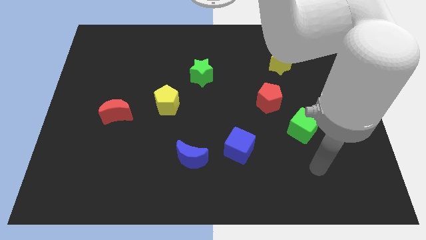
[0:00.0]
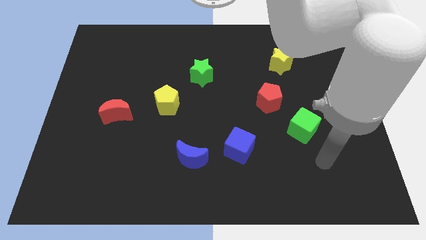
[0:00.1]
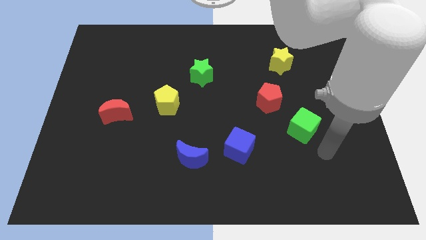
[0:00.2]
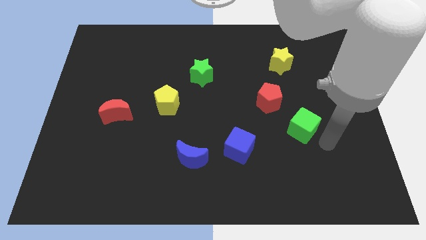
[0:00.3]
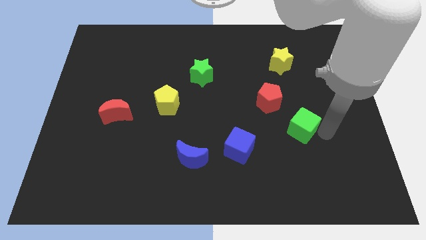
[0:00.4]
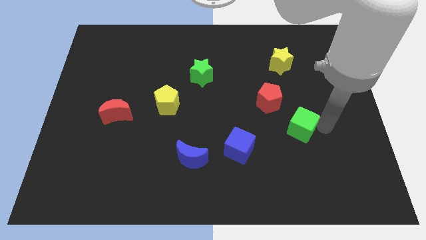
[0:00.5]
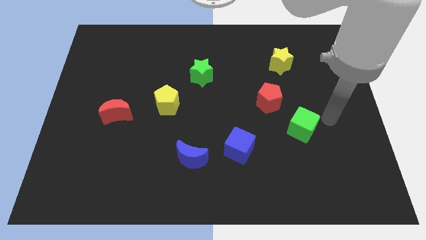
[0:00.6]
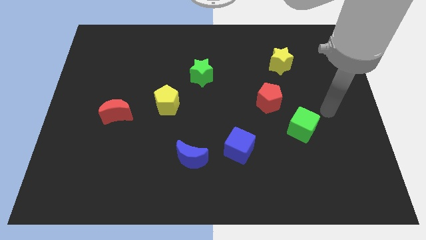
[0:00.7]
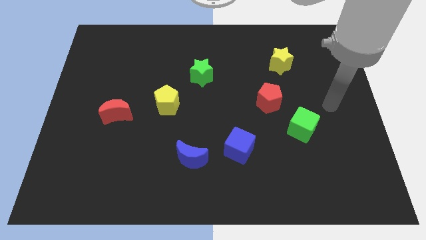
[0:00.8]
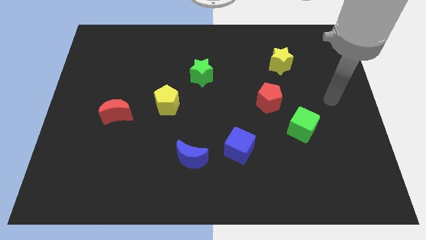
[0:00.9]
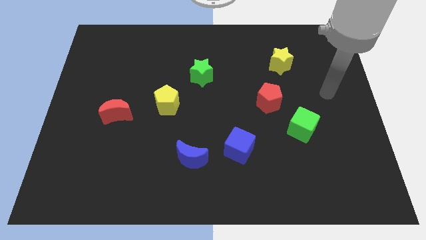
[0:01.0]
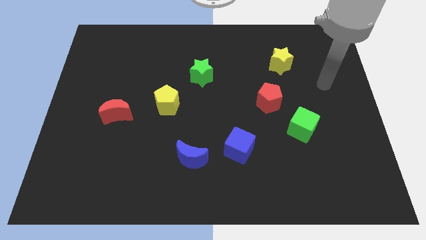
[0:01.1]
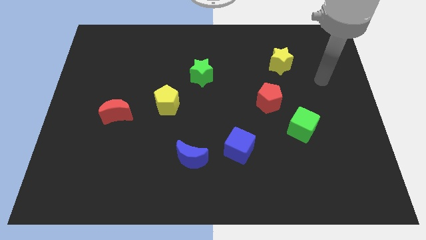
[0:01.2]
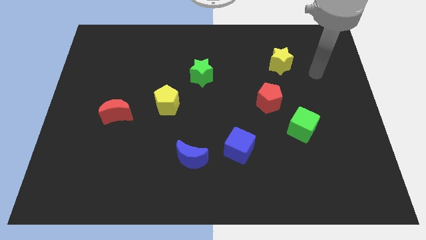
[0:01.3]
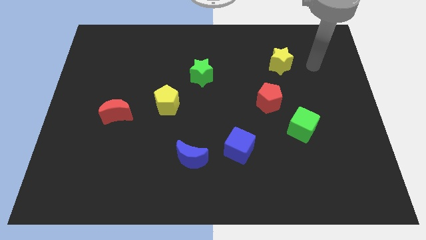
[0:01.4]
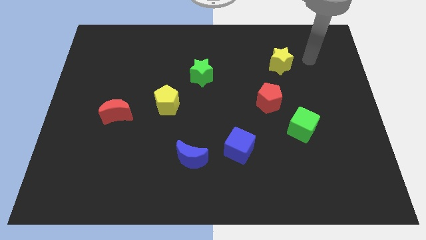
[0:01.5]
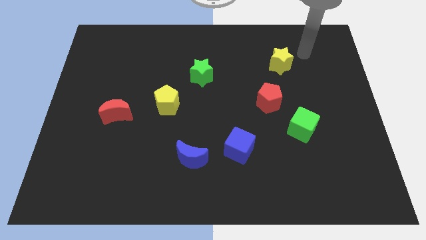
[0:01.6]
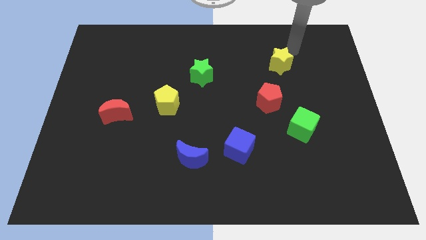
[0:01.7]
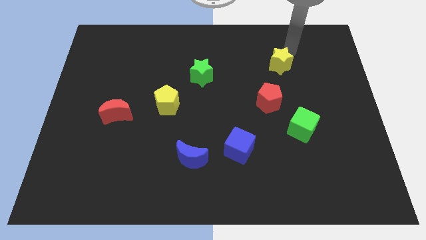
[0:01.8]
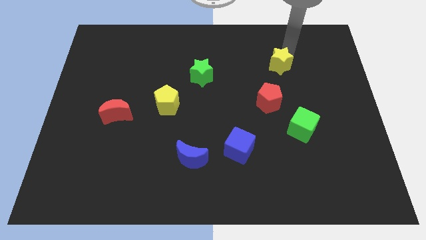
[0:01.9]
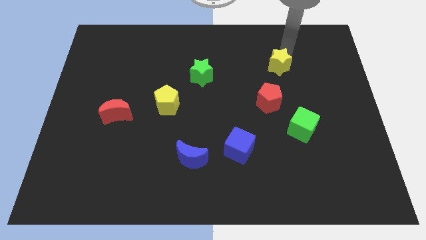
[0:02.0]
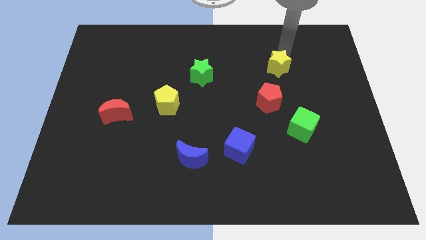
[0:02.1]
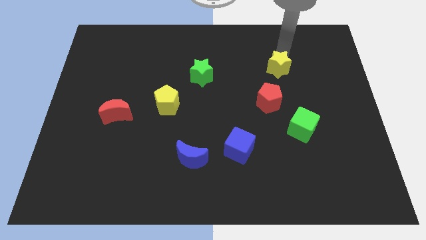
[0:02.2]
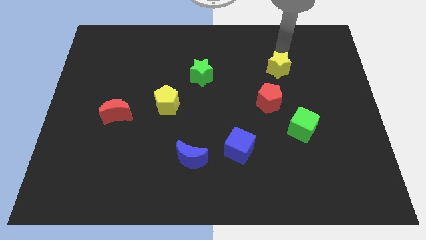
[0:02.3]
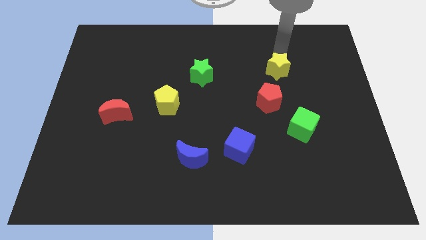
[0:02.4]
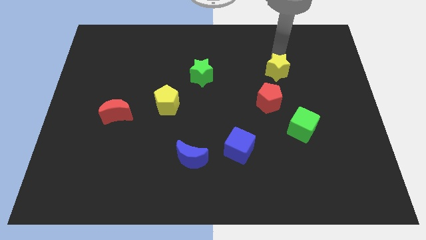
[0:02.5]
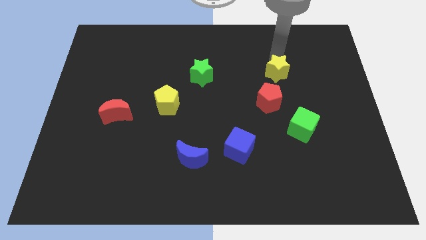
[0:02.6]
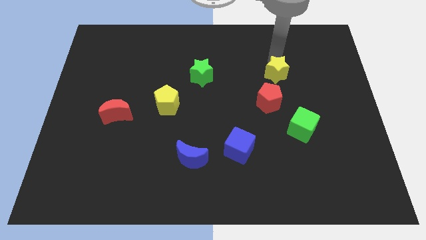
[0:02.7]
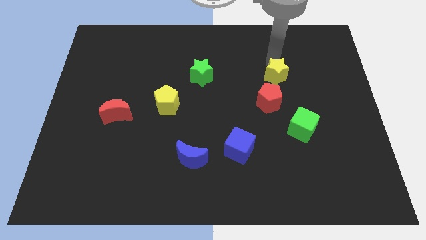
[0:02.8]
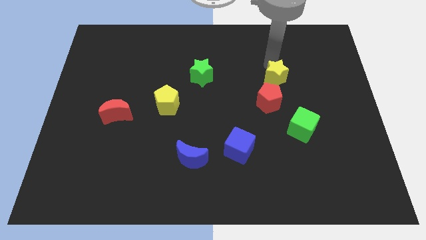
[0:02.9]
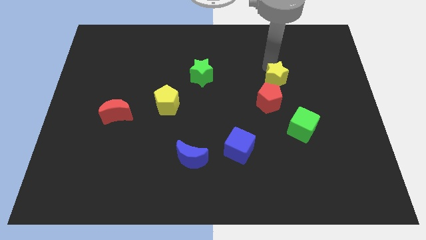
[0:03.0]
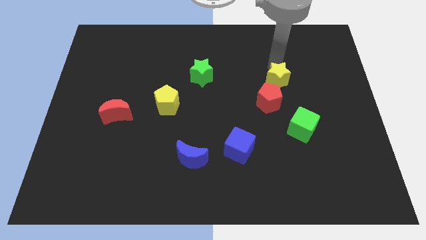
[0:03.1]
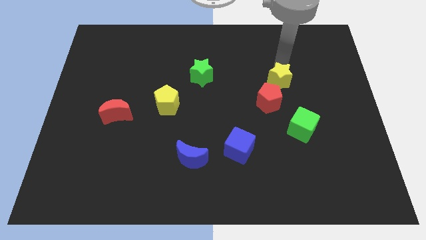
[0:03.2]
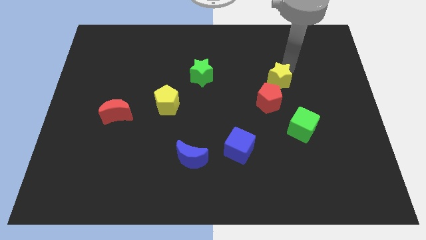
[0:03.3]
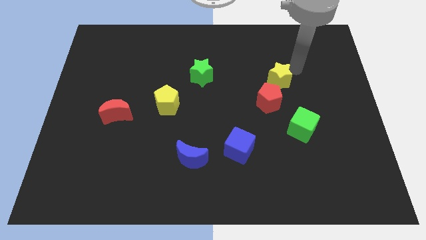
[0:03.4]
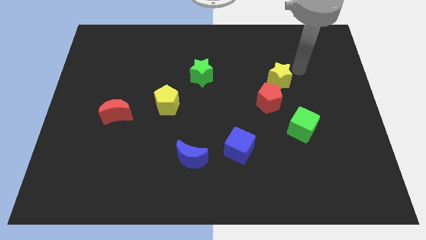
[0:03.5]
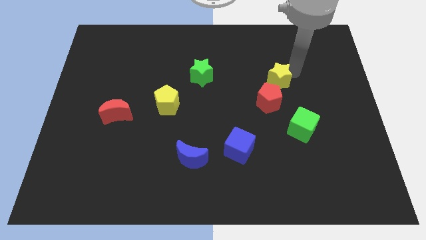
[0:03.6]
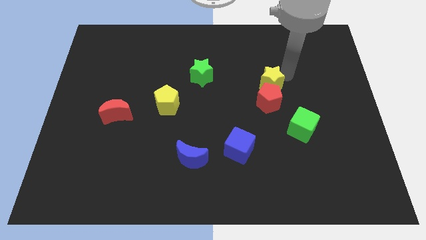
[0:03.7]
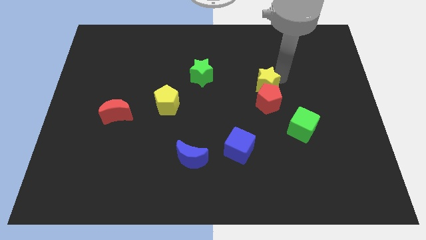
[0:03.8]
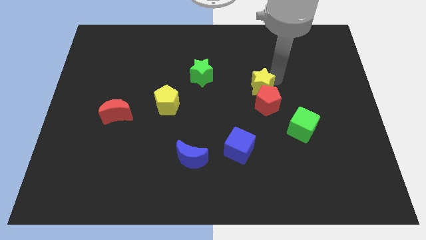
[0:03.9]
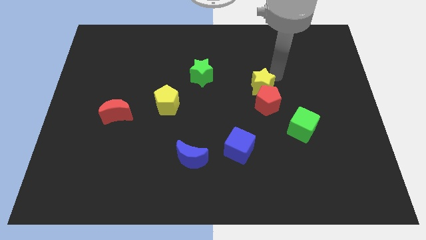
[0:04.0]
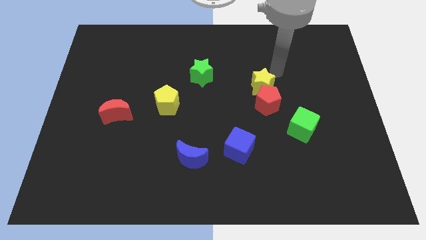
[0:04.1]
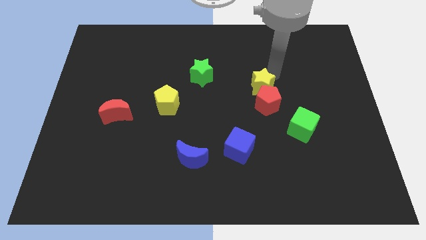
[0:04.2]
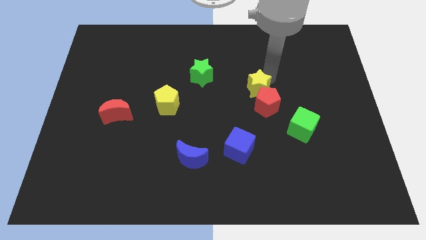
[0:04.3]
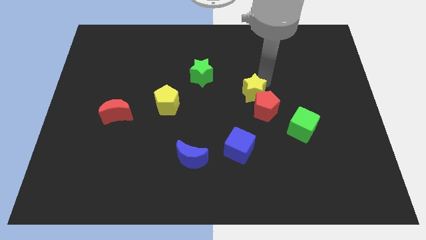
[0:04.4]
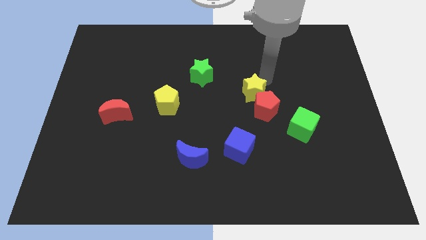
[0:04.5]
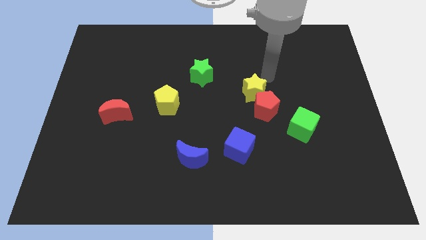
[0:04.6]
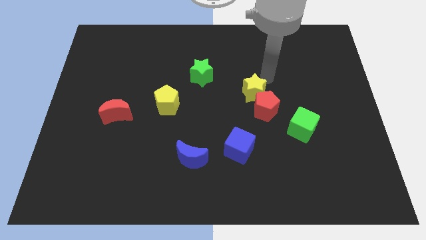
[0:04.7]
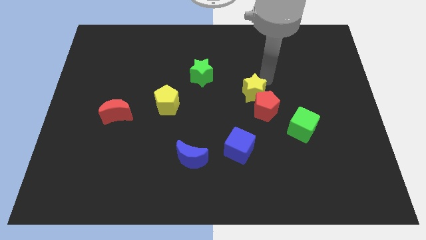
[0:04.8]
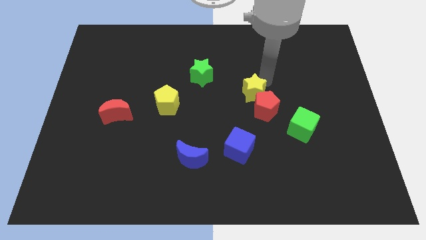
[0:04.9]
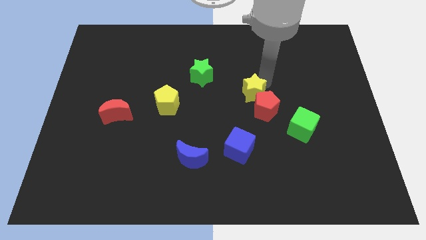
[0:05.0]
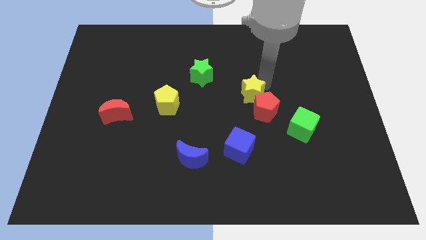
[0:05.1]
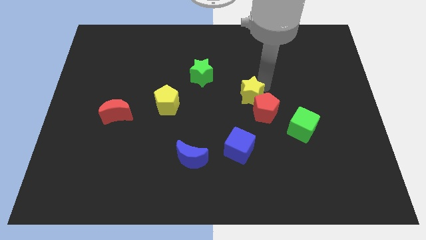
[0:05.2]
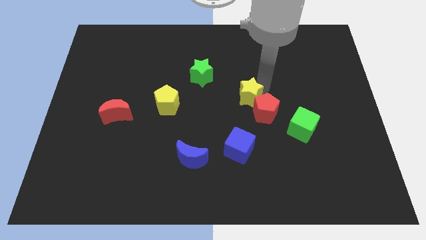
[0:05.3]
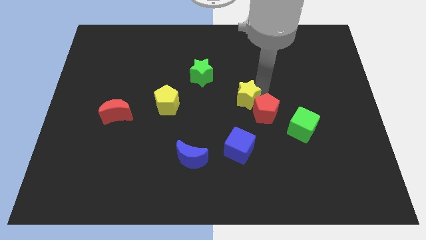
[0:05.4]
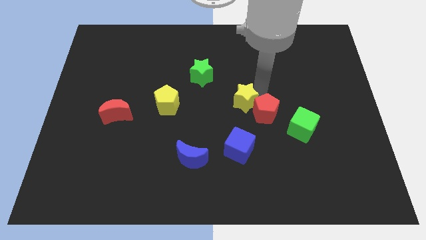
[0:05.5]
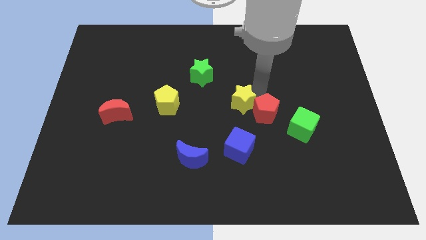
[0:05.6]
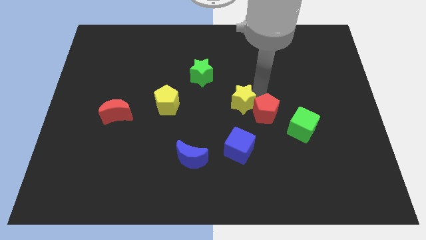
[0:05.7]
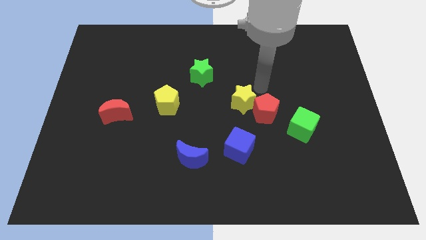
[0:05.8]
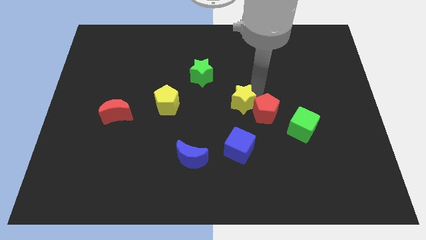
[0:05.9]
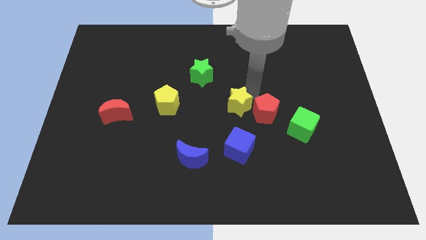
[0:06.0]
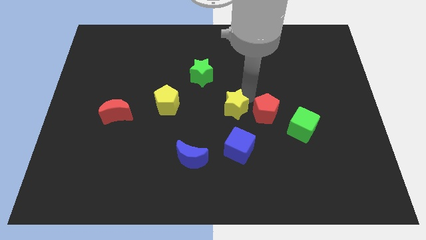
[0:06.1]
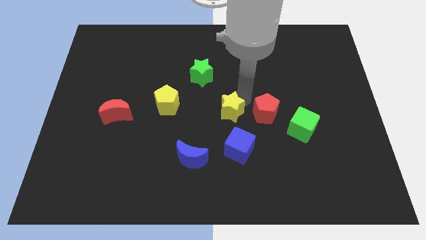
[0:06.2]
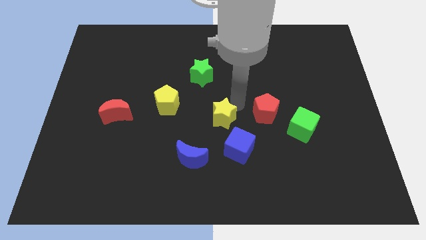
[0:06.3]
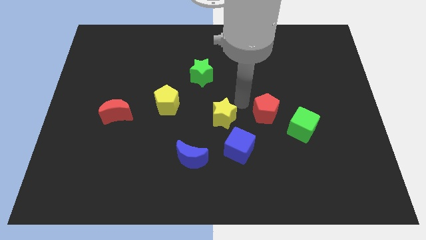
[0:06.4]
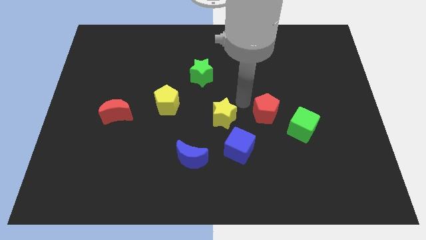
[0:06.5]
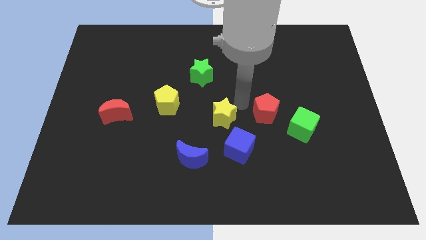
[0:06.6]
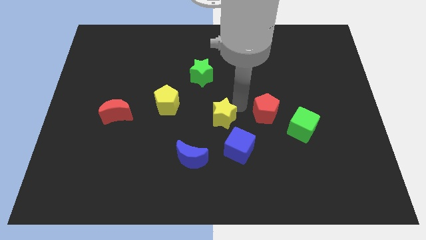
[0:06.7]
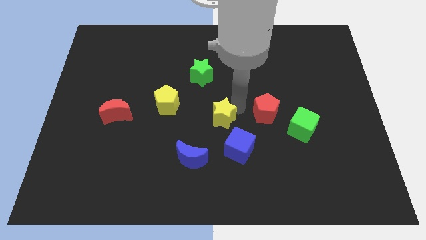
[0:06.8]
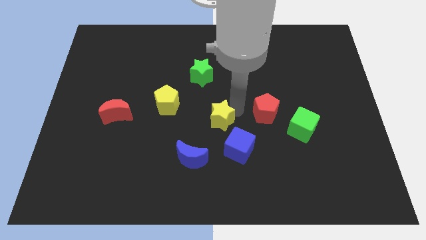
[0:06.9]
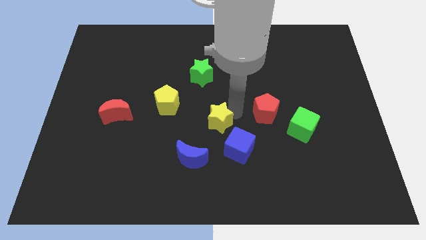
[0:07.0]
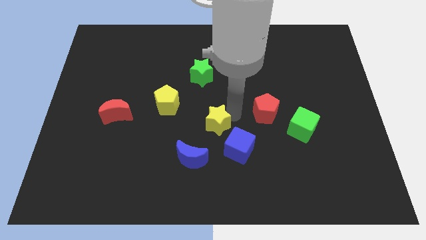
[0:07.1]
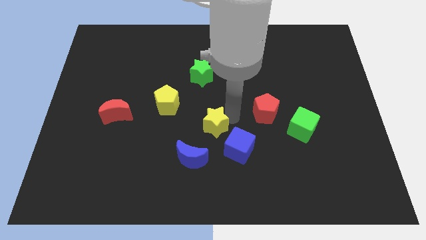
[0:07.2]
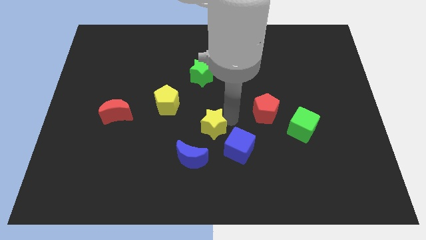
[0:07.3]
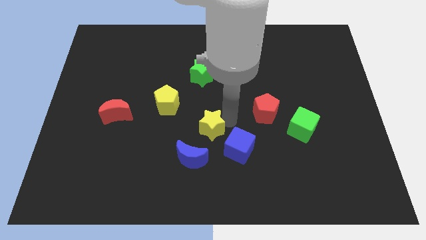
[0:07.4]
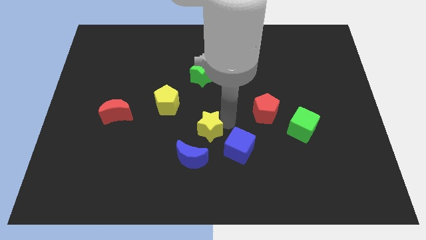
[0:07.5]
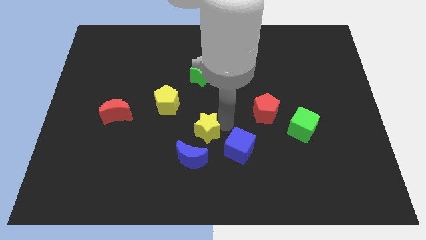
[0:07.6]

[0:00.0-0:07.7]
put the yellow star to the left side of the blue cube

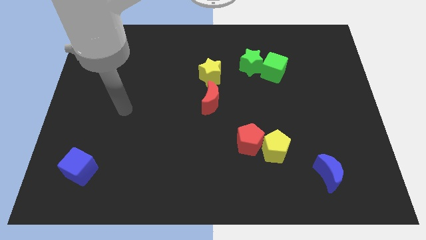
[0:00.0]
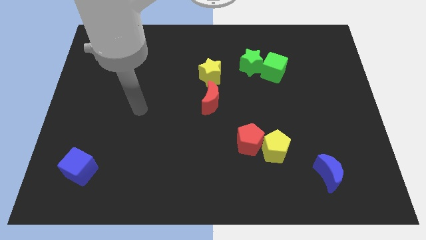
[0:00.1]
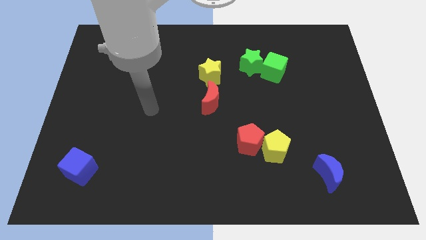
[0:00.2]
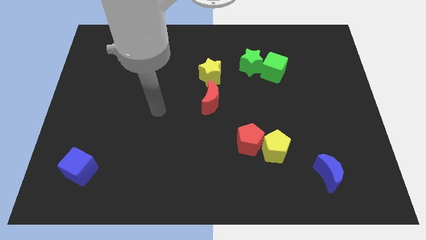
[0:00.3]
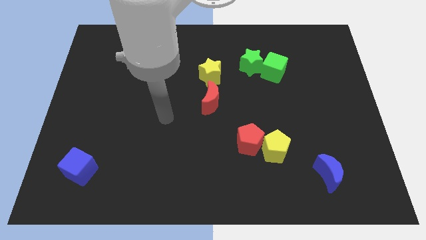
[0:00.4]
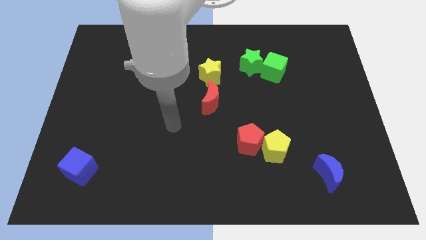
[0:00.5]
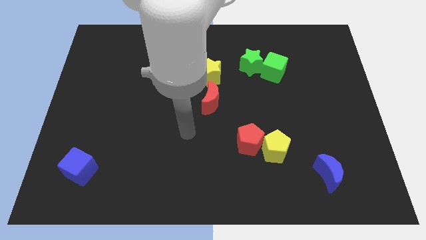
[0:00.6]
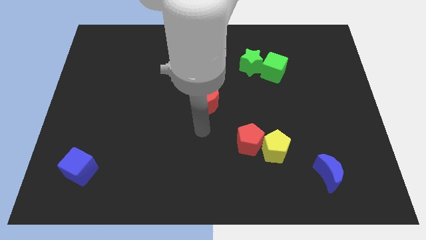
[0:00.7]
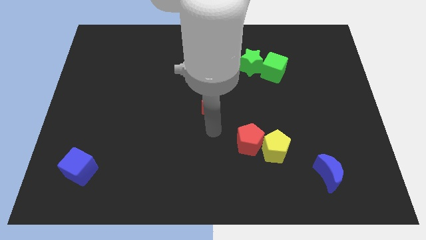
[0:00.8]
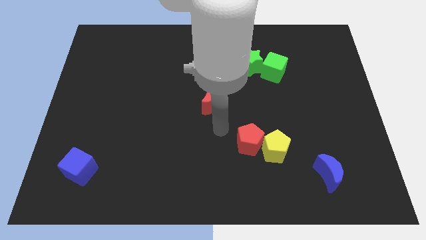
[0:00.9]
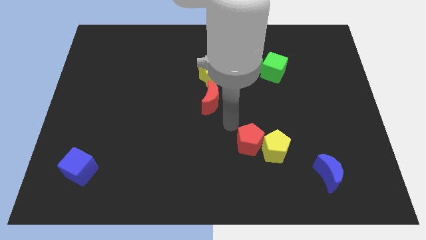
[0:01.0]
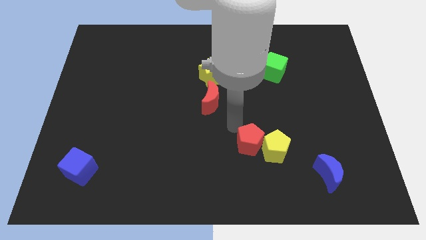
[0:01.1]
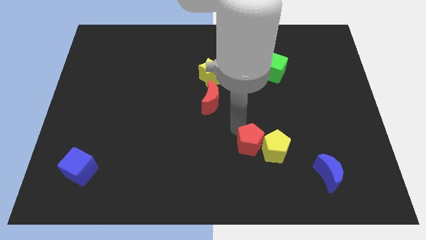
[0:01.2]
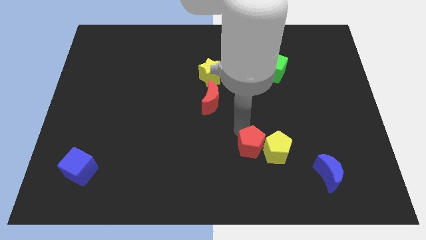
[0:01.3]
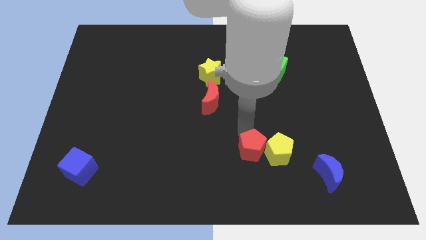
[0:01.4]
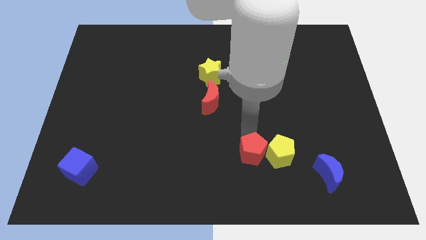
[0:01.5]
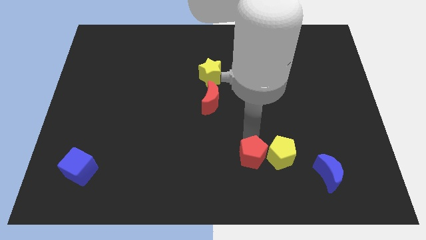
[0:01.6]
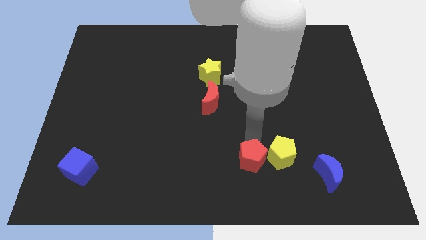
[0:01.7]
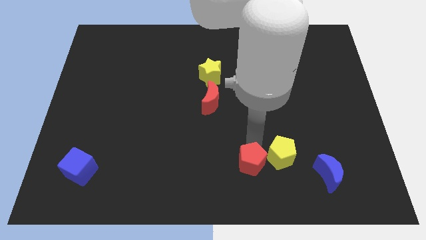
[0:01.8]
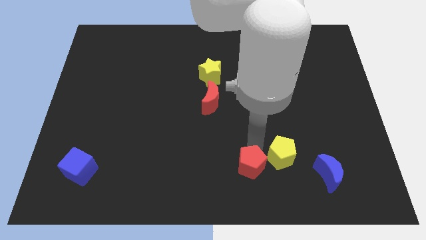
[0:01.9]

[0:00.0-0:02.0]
push the red pentagon to the left side of the blue moon
